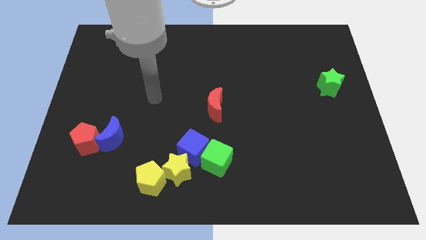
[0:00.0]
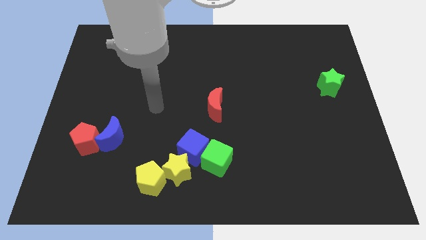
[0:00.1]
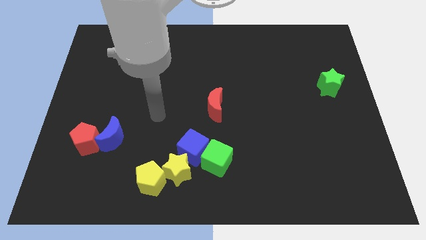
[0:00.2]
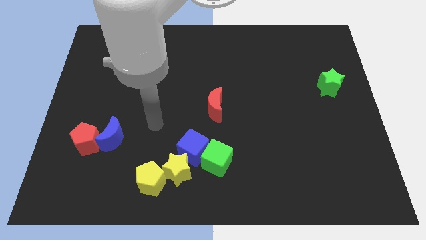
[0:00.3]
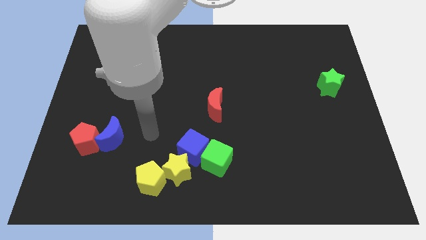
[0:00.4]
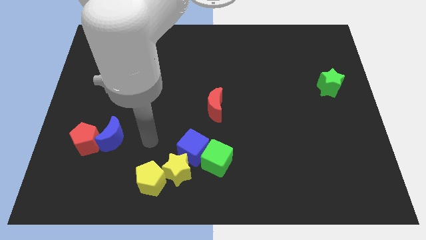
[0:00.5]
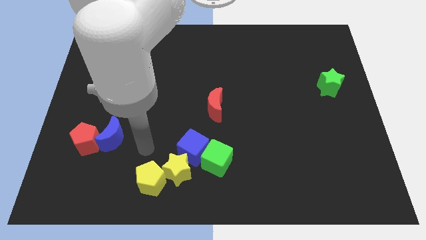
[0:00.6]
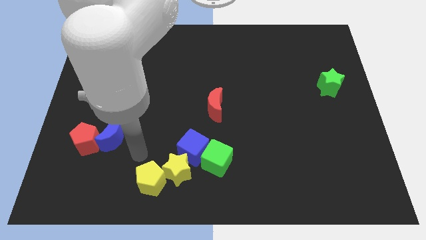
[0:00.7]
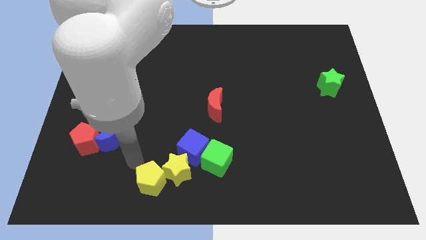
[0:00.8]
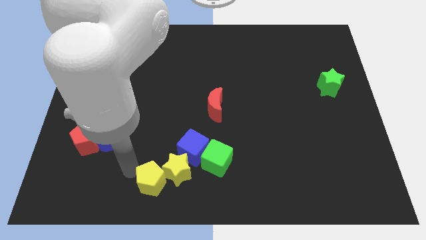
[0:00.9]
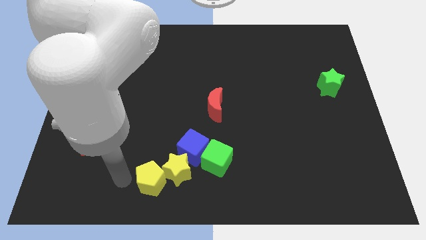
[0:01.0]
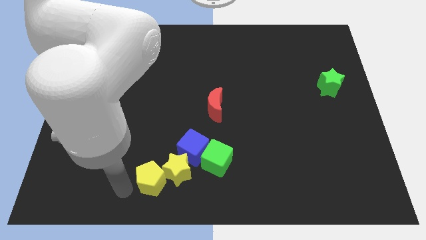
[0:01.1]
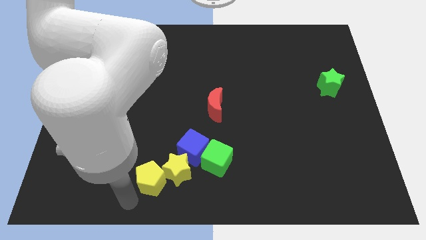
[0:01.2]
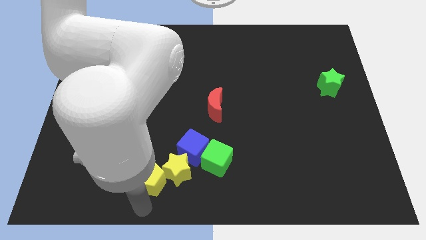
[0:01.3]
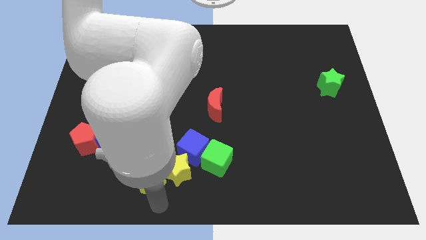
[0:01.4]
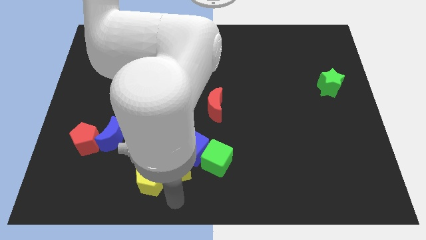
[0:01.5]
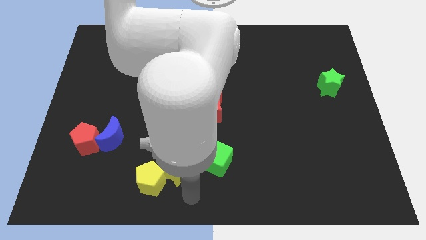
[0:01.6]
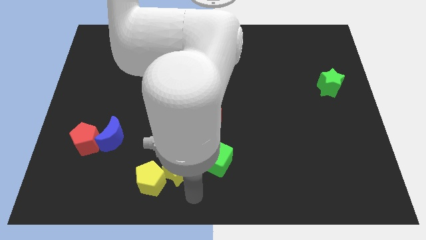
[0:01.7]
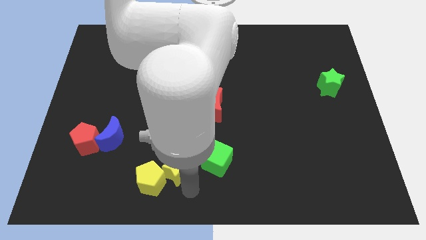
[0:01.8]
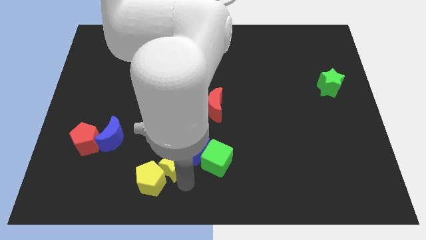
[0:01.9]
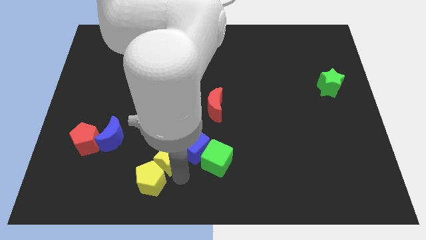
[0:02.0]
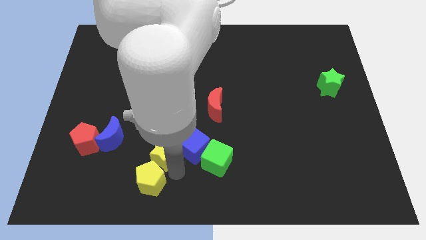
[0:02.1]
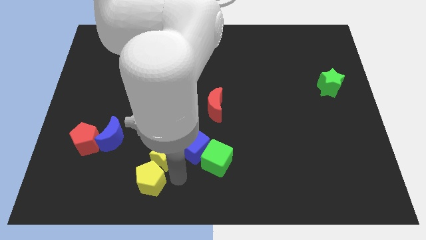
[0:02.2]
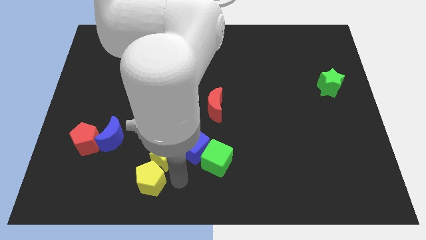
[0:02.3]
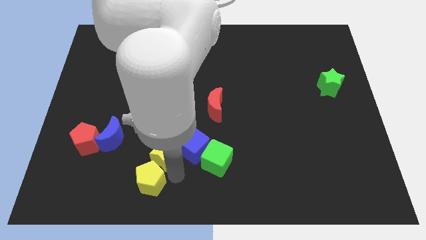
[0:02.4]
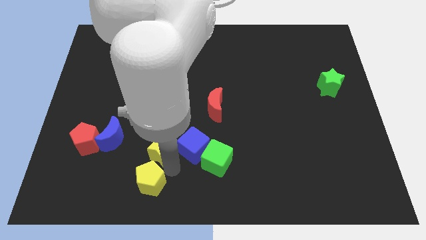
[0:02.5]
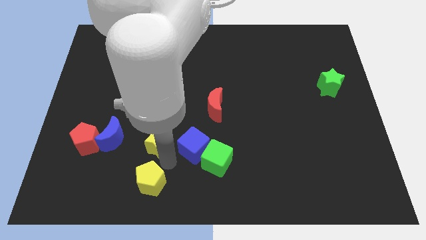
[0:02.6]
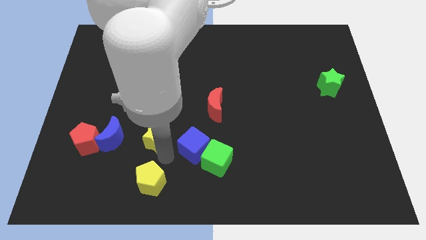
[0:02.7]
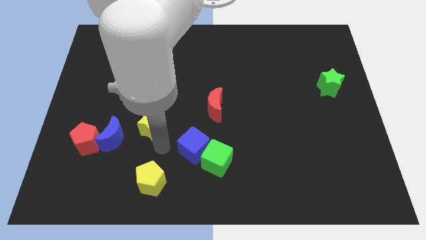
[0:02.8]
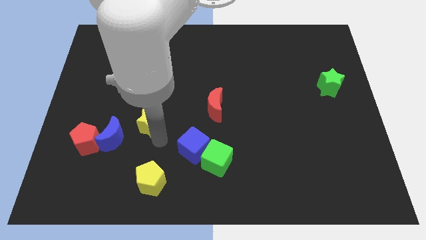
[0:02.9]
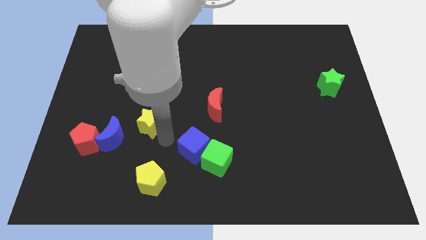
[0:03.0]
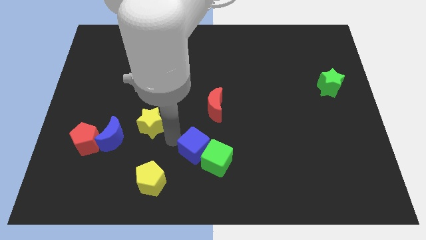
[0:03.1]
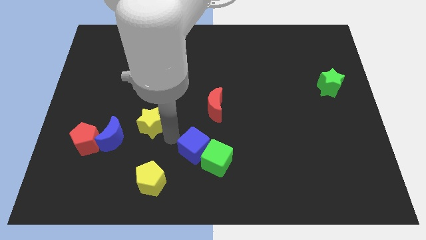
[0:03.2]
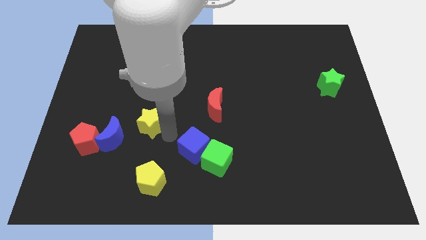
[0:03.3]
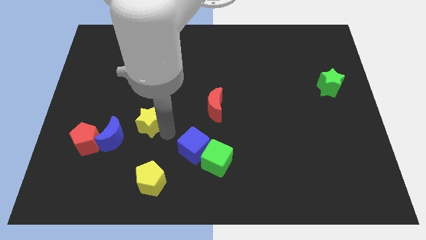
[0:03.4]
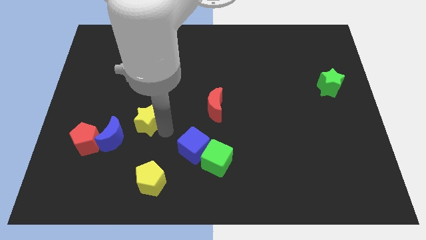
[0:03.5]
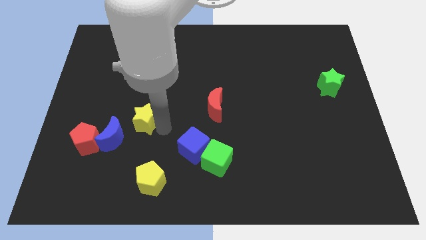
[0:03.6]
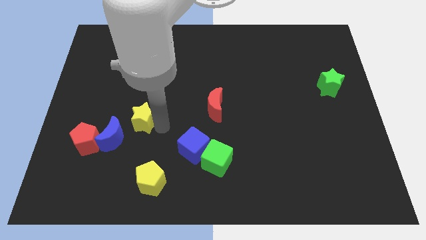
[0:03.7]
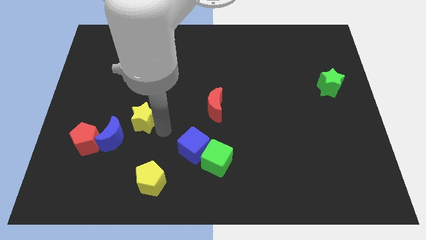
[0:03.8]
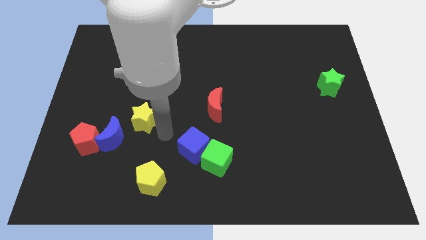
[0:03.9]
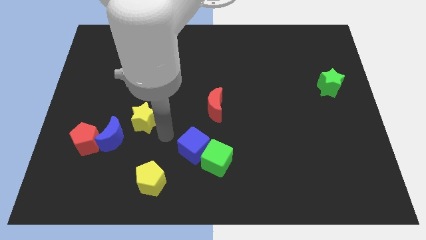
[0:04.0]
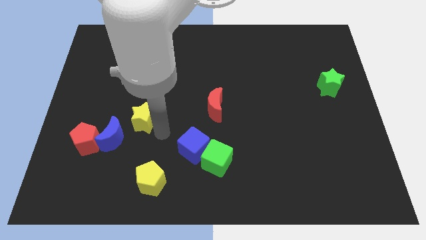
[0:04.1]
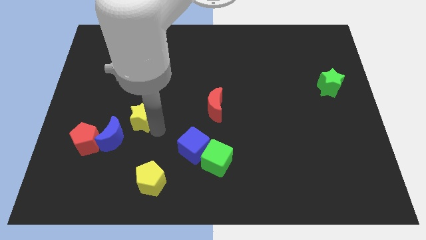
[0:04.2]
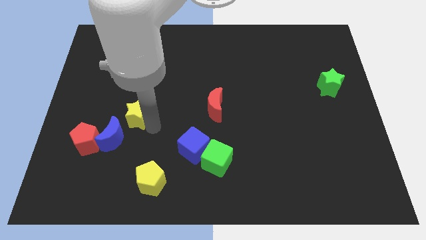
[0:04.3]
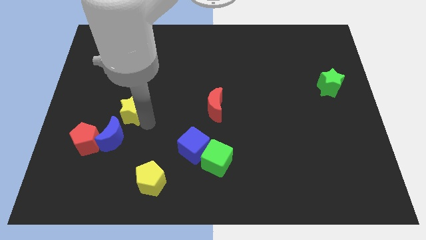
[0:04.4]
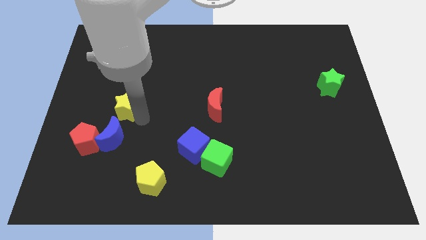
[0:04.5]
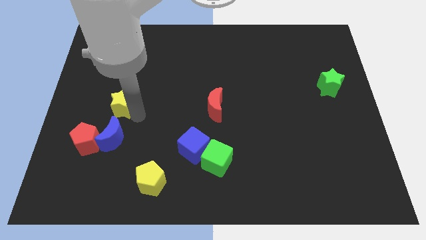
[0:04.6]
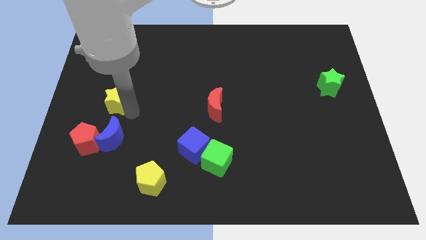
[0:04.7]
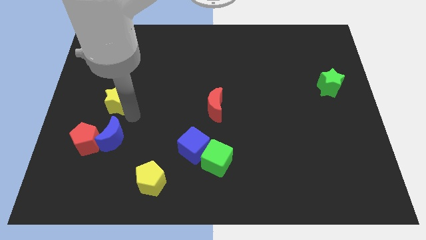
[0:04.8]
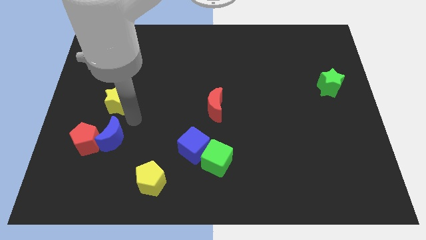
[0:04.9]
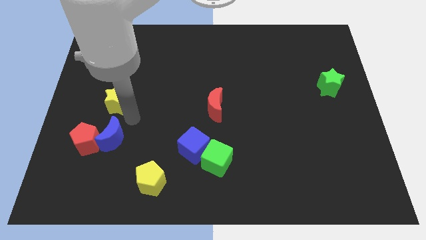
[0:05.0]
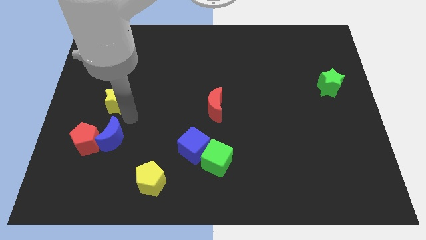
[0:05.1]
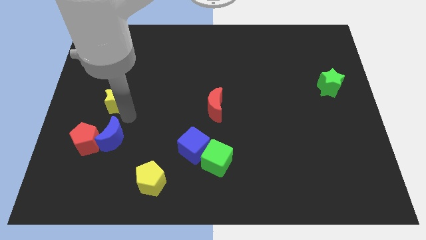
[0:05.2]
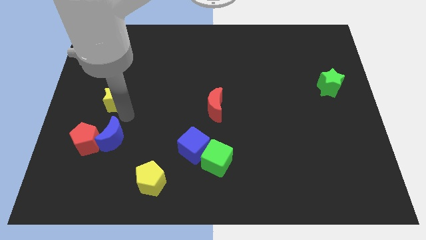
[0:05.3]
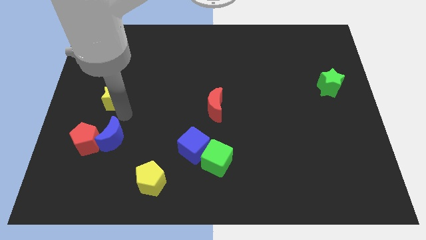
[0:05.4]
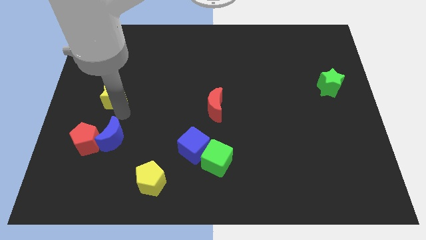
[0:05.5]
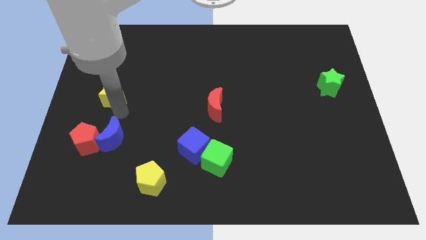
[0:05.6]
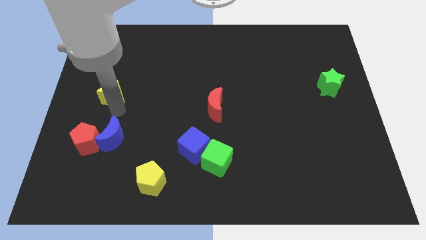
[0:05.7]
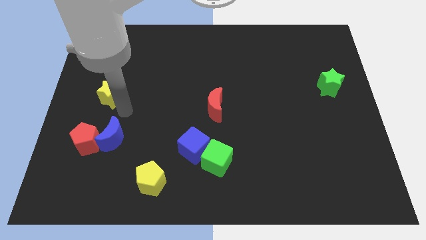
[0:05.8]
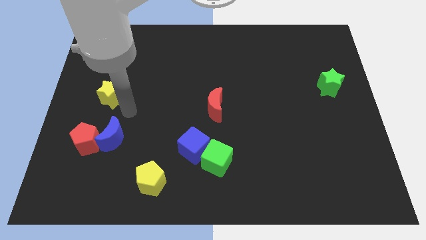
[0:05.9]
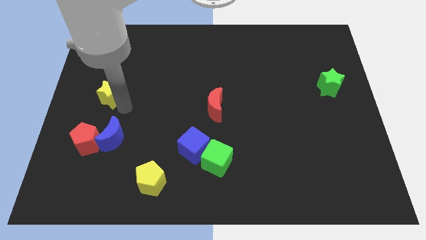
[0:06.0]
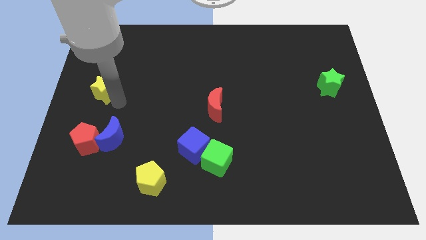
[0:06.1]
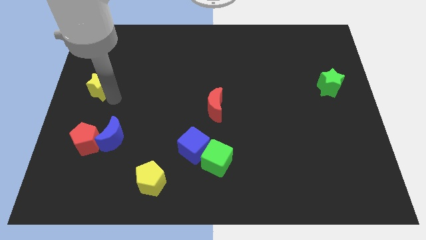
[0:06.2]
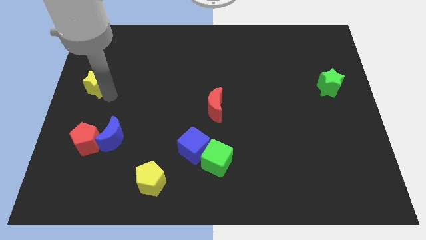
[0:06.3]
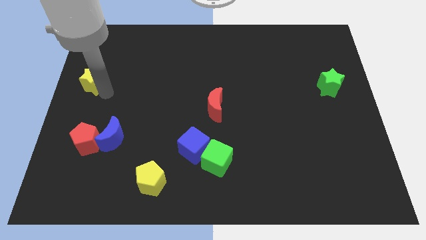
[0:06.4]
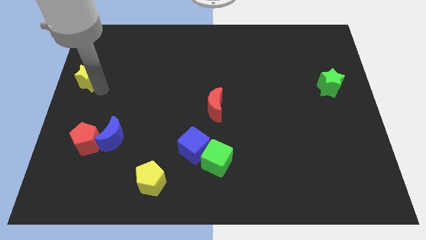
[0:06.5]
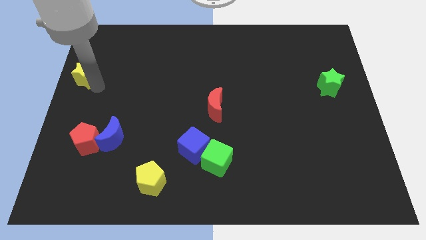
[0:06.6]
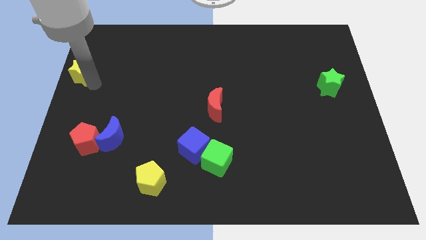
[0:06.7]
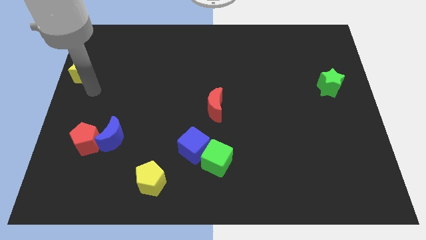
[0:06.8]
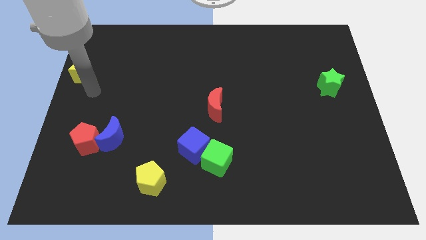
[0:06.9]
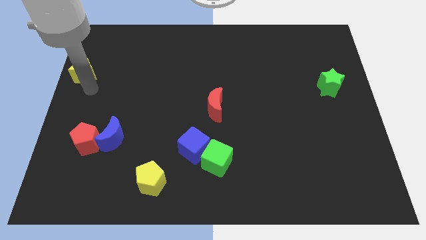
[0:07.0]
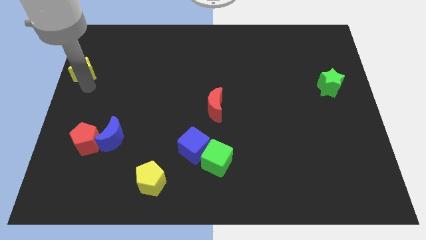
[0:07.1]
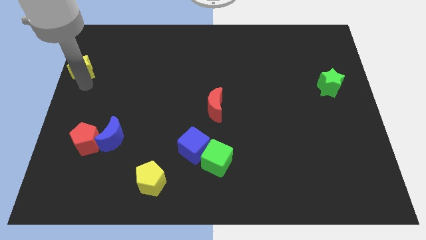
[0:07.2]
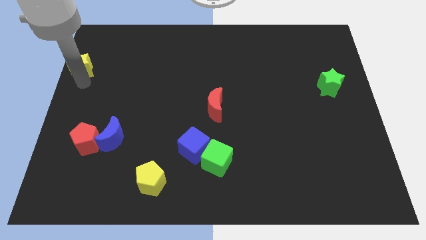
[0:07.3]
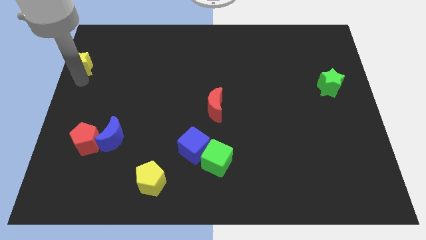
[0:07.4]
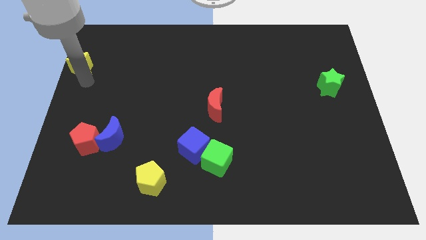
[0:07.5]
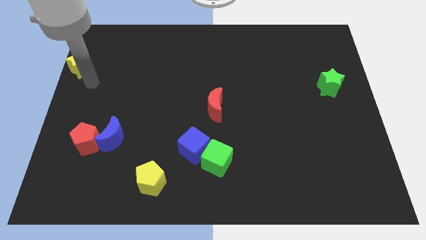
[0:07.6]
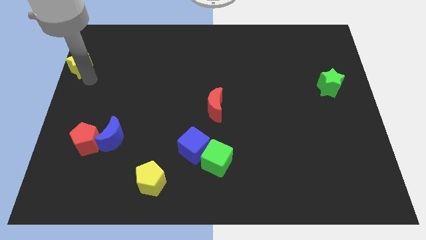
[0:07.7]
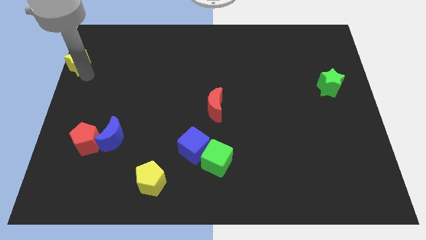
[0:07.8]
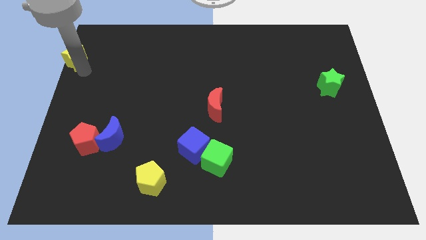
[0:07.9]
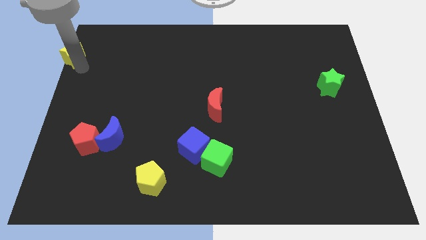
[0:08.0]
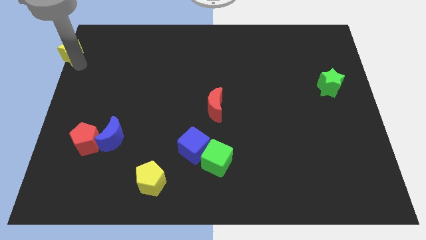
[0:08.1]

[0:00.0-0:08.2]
put the yellow star to the top left
